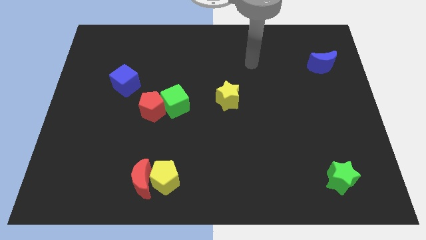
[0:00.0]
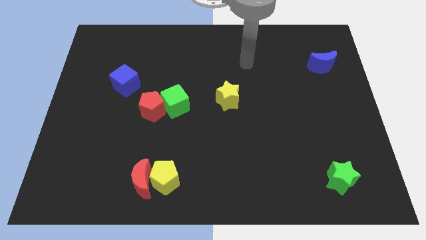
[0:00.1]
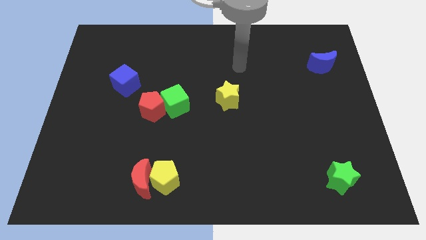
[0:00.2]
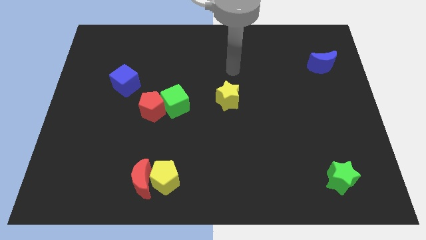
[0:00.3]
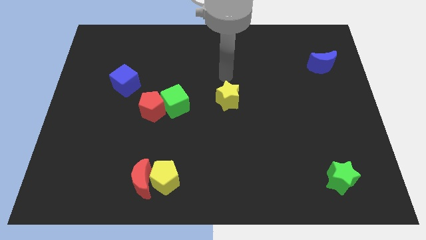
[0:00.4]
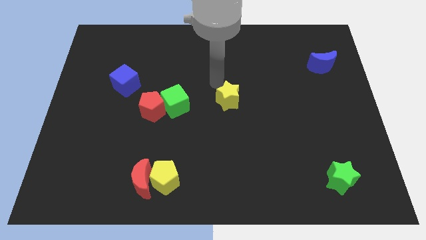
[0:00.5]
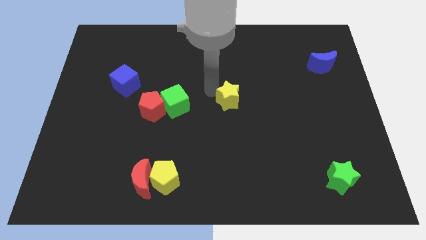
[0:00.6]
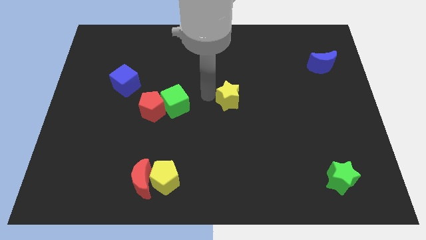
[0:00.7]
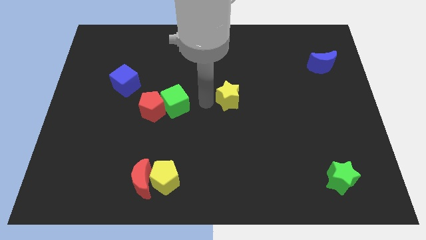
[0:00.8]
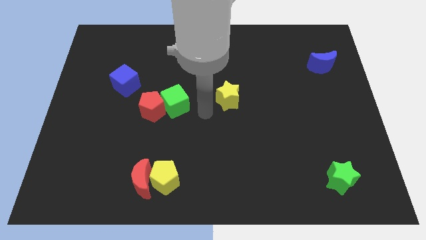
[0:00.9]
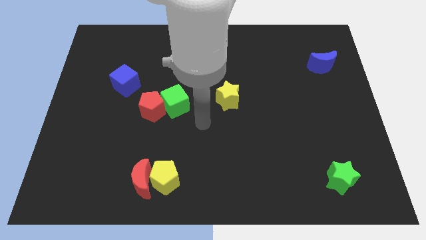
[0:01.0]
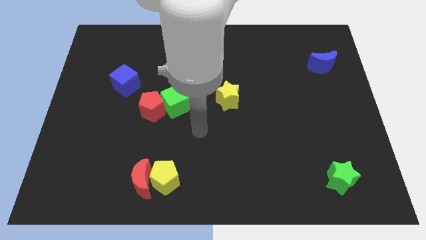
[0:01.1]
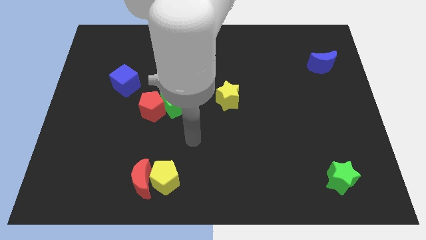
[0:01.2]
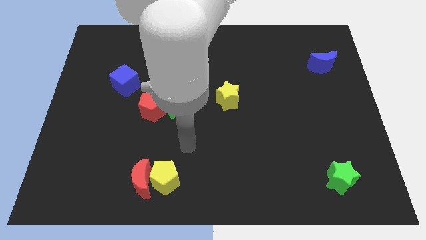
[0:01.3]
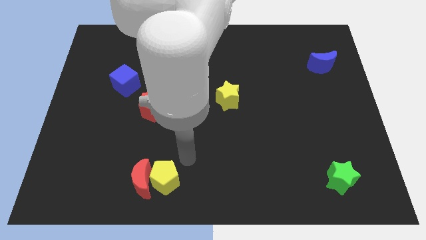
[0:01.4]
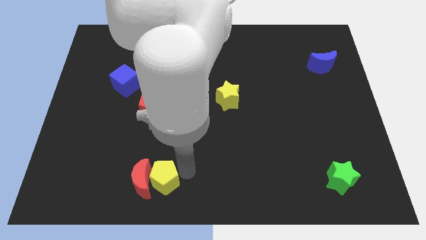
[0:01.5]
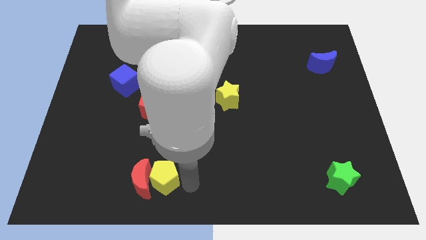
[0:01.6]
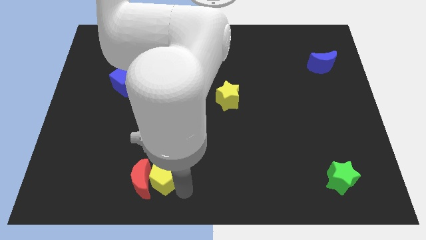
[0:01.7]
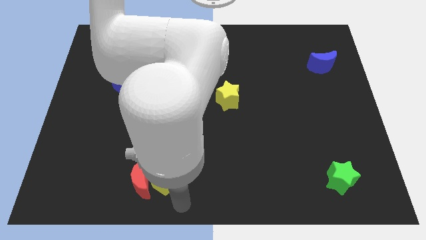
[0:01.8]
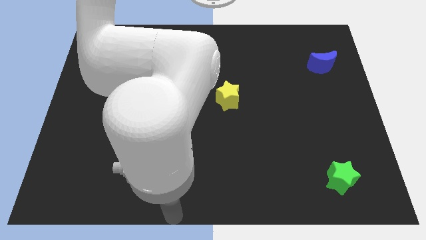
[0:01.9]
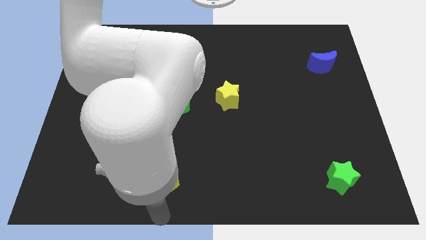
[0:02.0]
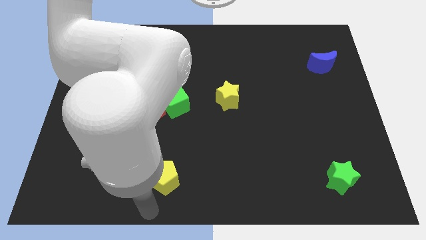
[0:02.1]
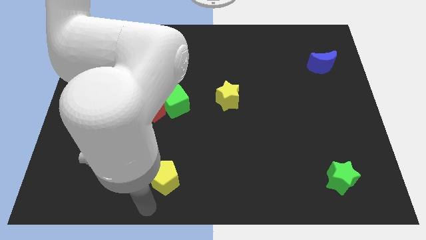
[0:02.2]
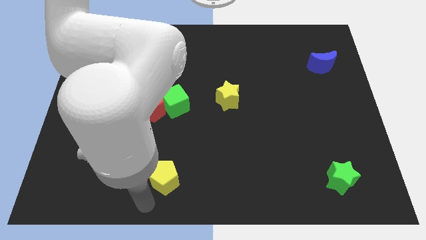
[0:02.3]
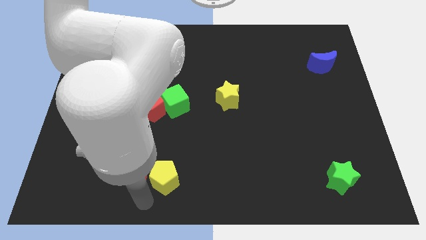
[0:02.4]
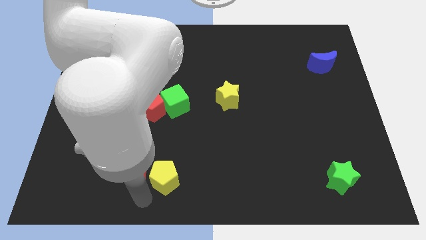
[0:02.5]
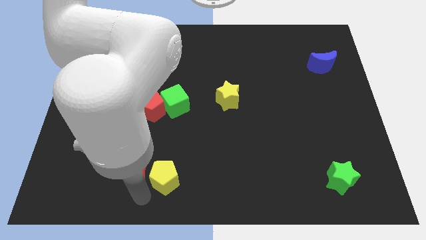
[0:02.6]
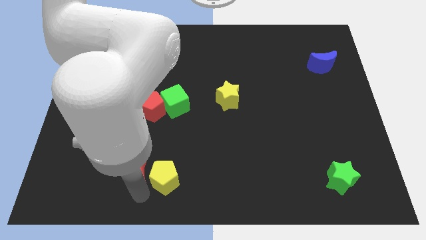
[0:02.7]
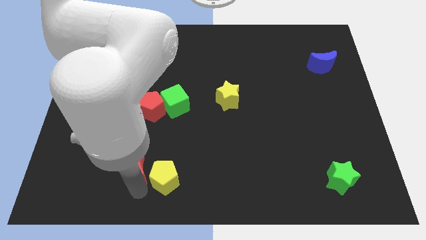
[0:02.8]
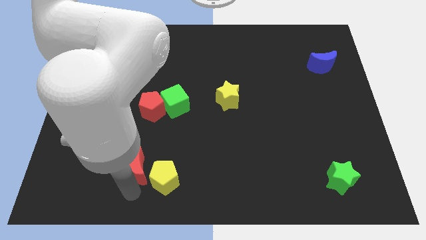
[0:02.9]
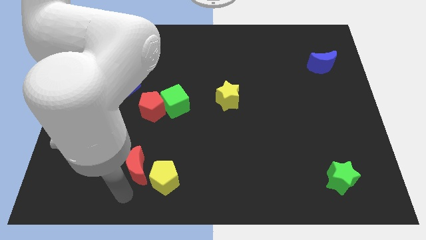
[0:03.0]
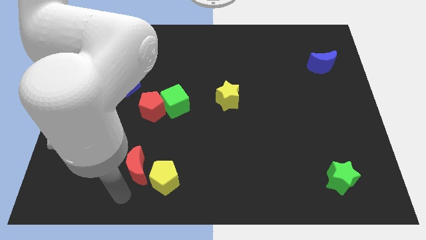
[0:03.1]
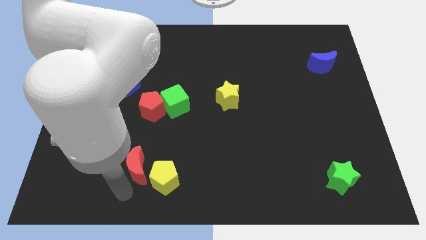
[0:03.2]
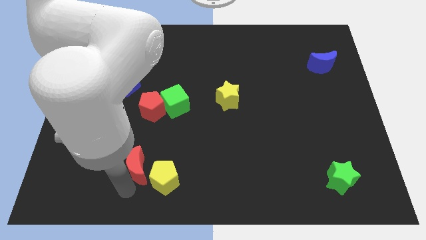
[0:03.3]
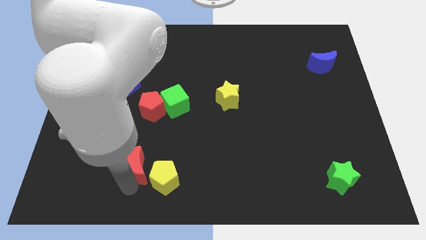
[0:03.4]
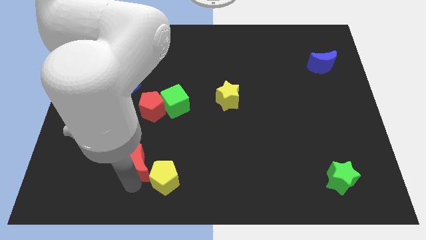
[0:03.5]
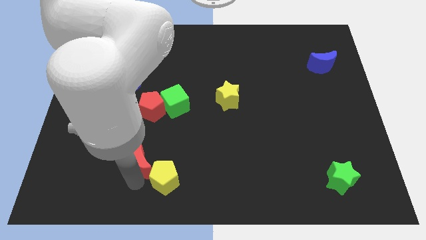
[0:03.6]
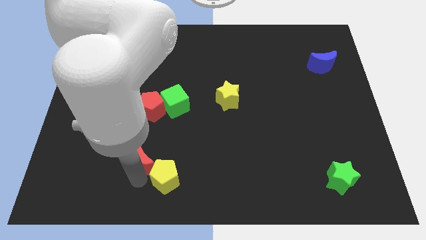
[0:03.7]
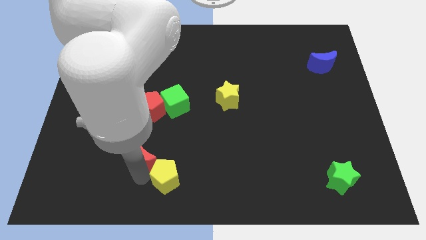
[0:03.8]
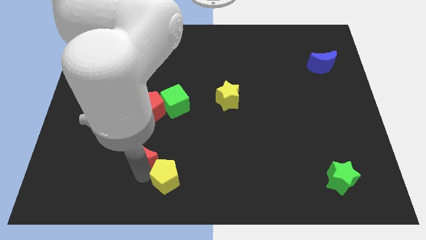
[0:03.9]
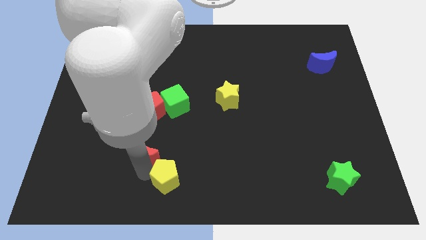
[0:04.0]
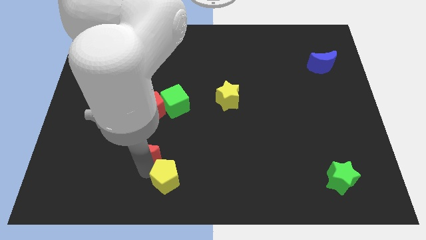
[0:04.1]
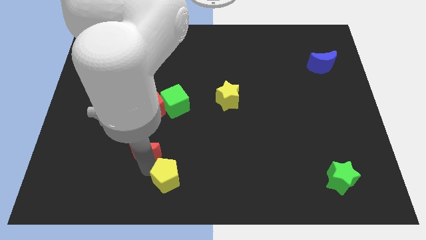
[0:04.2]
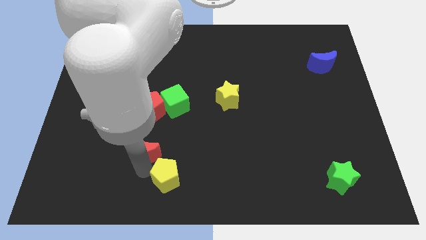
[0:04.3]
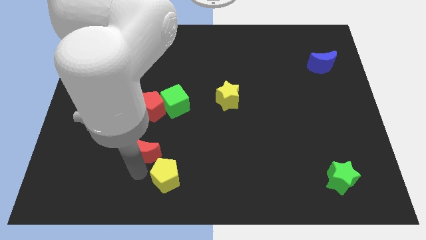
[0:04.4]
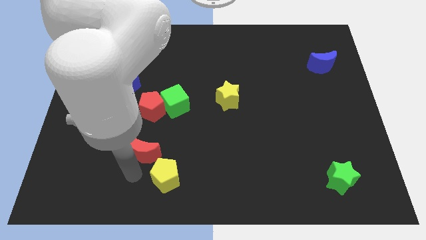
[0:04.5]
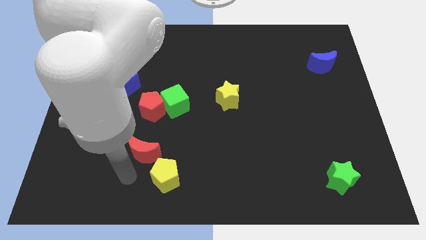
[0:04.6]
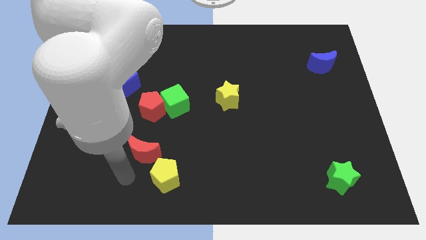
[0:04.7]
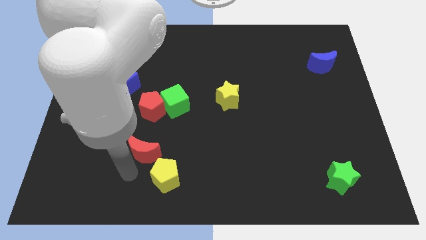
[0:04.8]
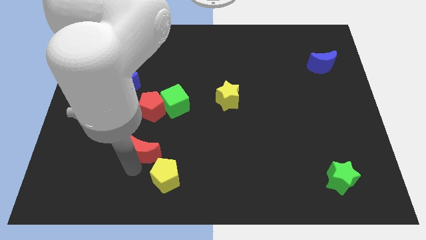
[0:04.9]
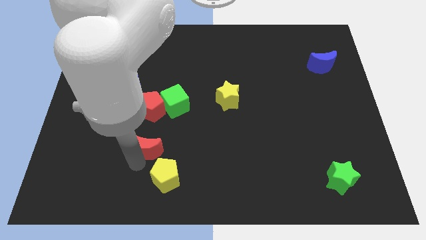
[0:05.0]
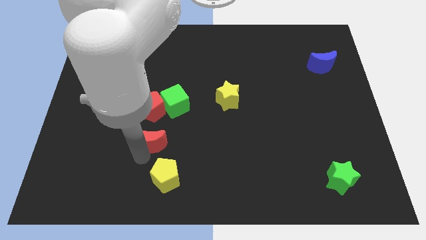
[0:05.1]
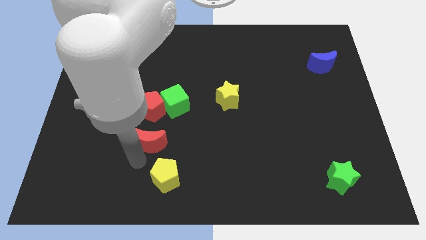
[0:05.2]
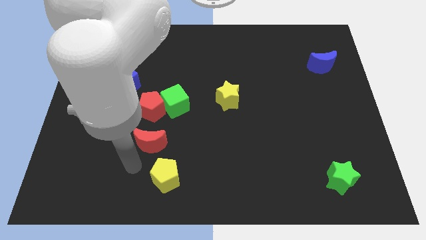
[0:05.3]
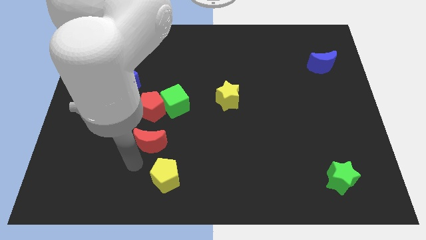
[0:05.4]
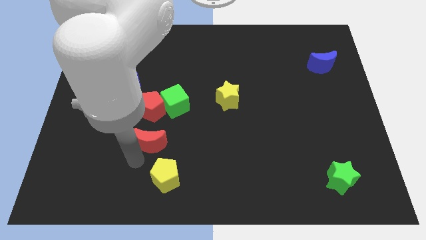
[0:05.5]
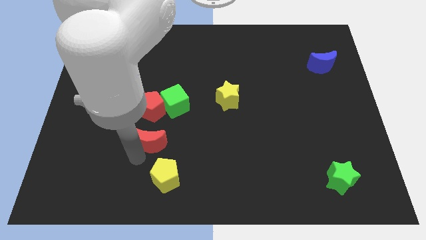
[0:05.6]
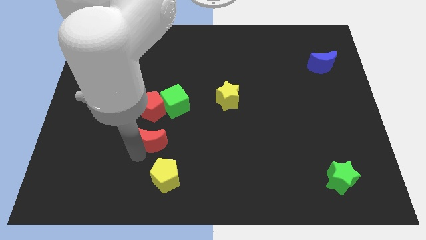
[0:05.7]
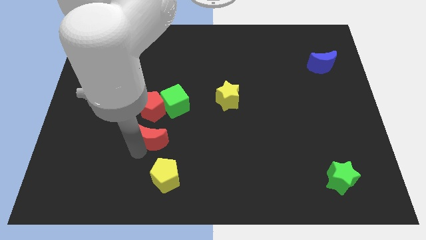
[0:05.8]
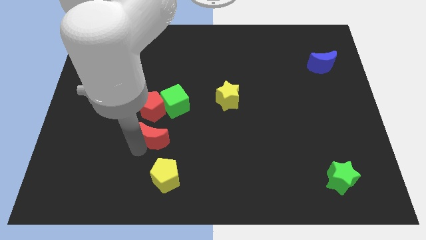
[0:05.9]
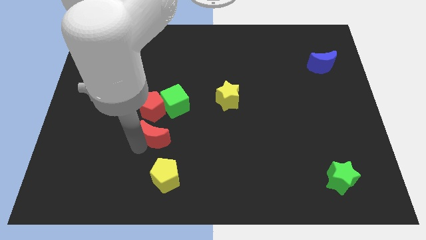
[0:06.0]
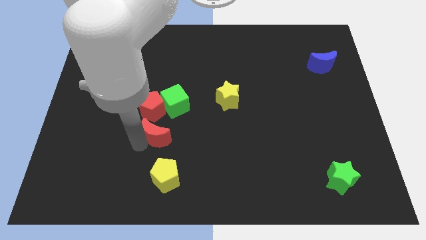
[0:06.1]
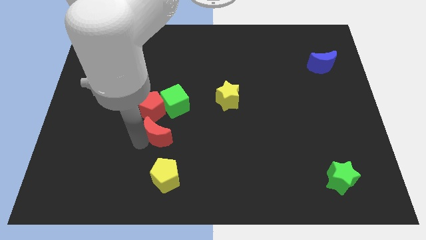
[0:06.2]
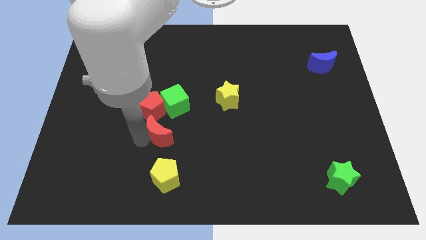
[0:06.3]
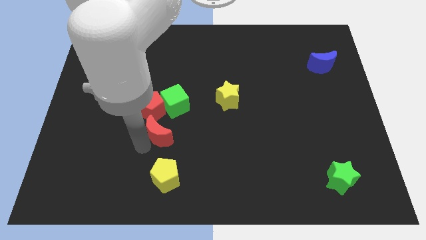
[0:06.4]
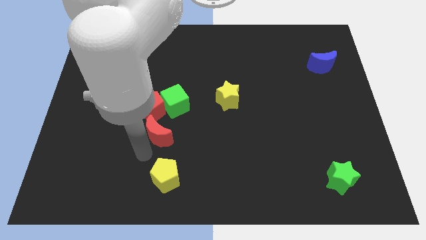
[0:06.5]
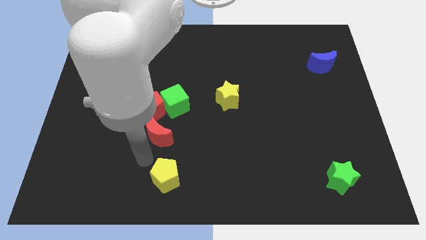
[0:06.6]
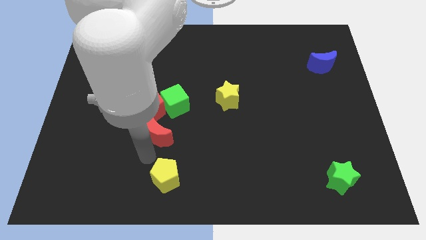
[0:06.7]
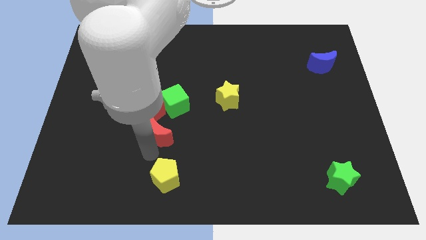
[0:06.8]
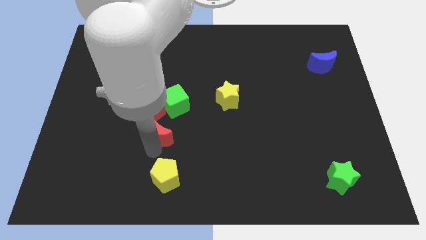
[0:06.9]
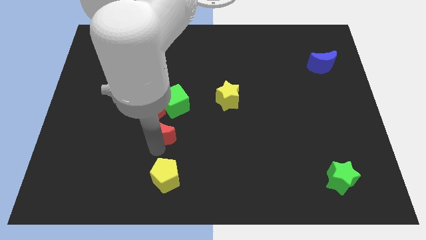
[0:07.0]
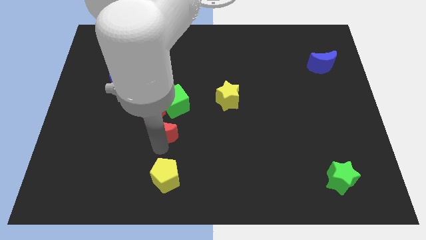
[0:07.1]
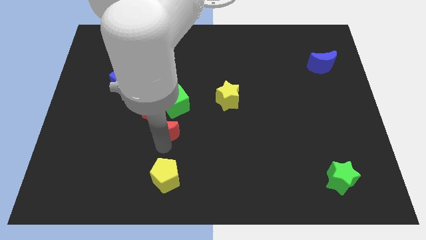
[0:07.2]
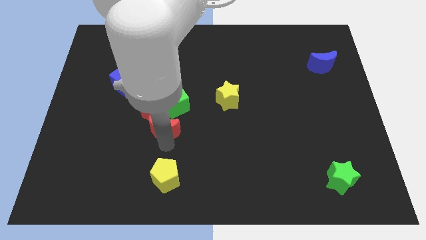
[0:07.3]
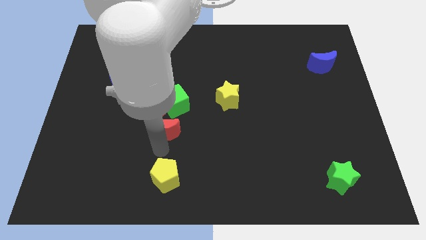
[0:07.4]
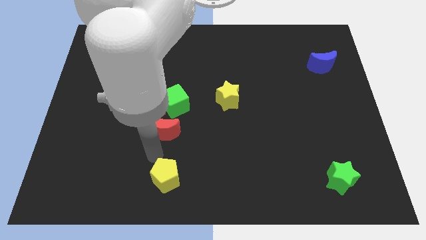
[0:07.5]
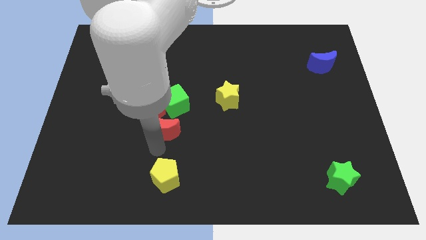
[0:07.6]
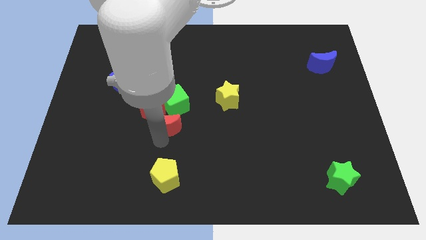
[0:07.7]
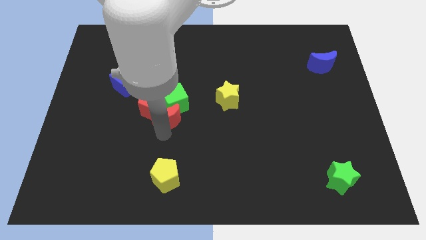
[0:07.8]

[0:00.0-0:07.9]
move the red moon to the green cube
